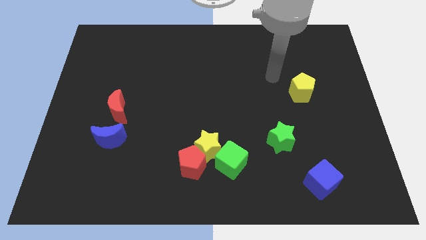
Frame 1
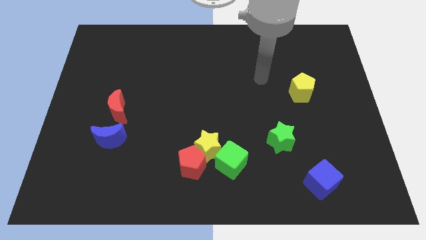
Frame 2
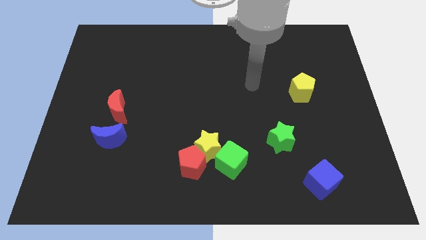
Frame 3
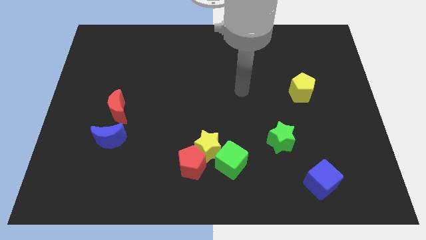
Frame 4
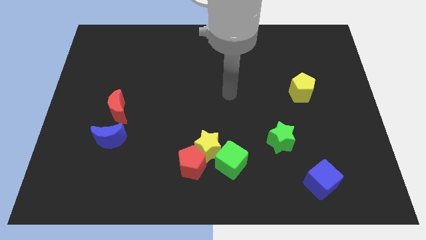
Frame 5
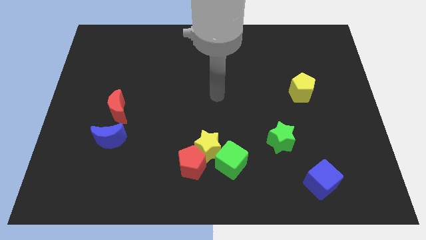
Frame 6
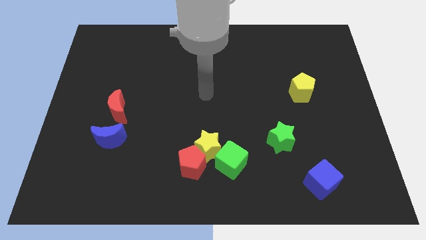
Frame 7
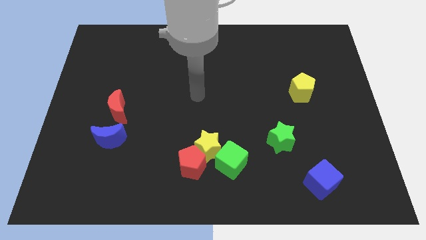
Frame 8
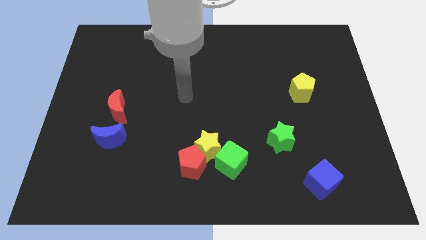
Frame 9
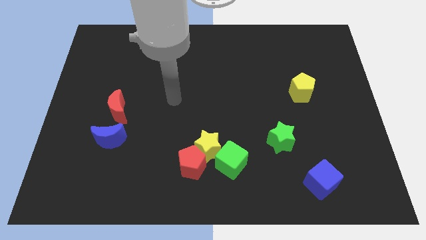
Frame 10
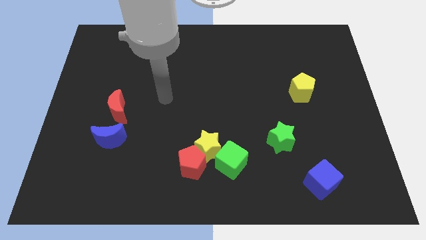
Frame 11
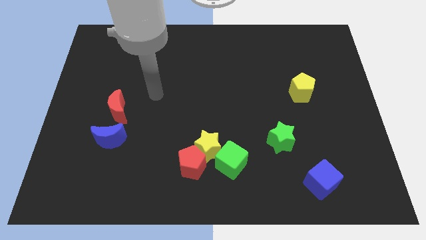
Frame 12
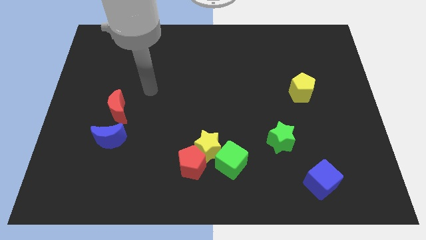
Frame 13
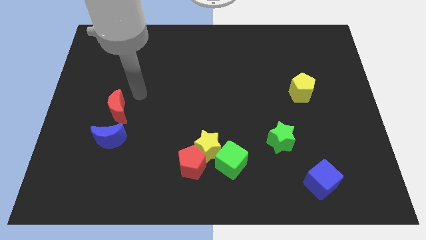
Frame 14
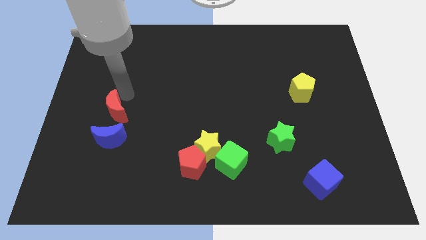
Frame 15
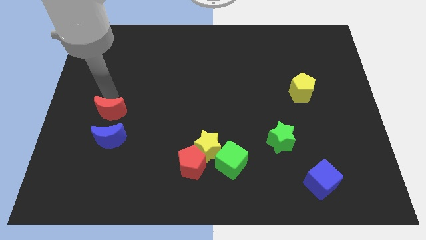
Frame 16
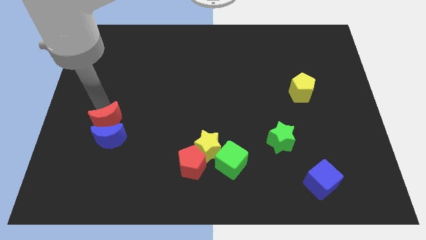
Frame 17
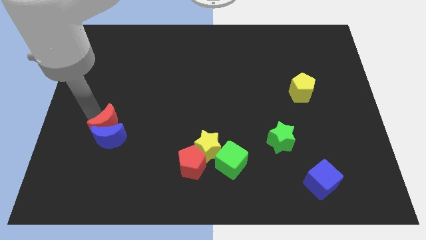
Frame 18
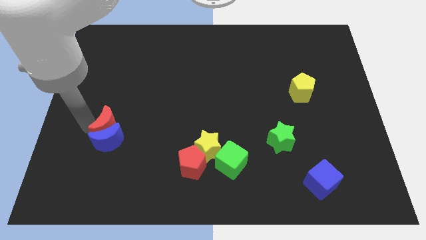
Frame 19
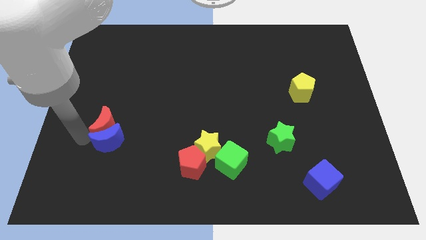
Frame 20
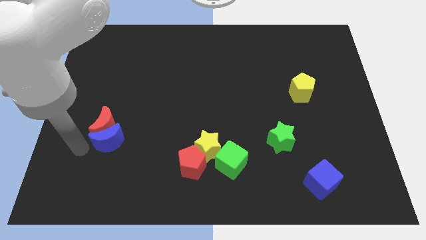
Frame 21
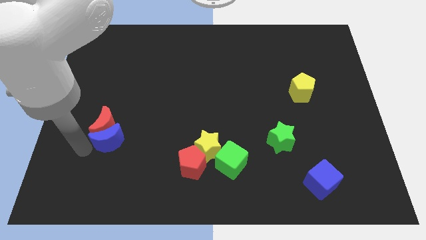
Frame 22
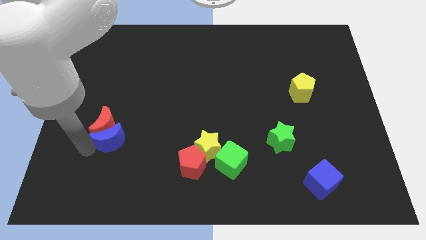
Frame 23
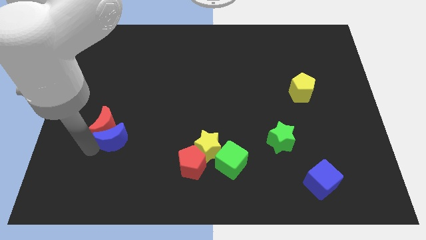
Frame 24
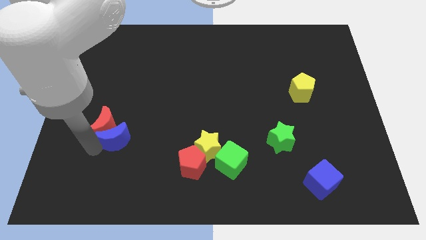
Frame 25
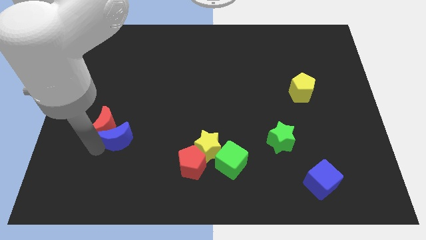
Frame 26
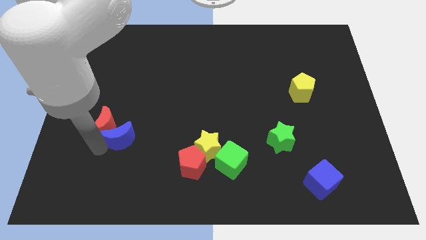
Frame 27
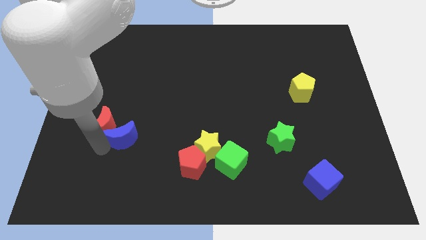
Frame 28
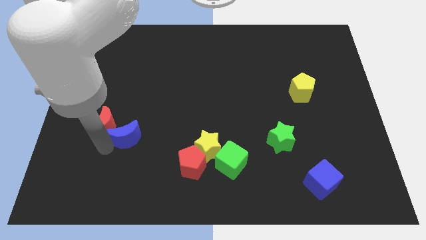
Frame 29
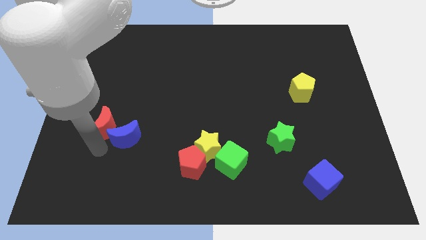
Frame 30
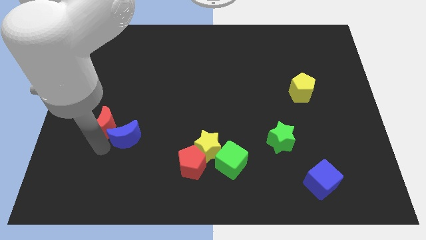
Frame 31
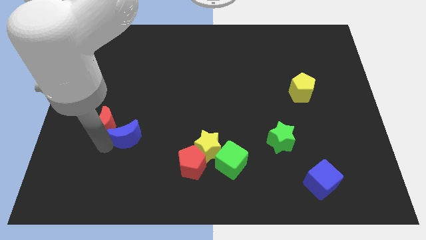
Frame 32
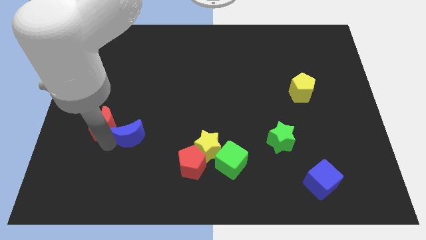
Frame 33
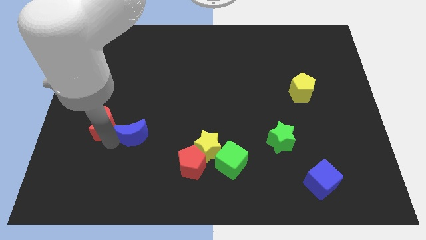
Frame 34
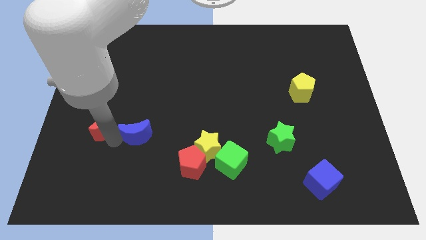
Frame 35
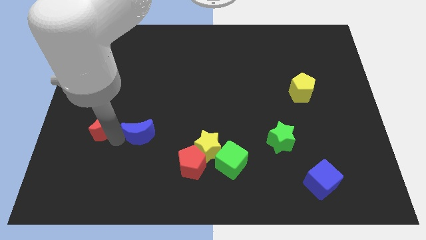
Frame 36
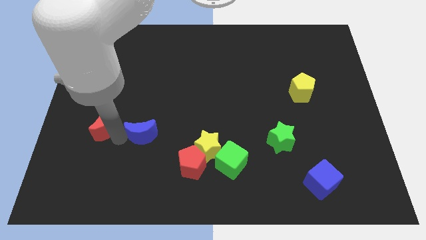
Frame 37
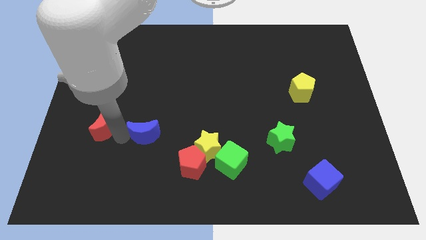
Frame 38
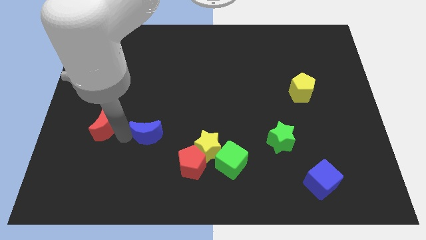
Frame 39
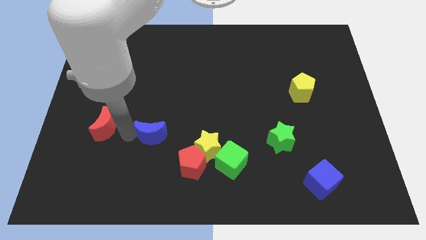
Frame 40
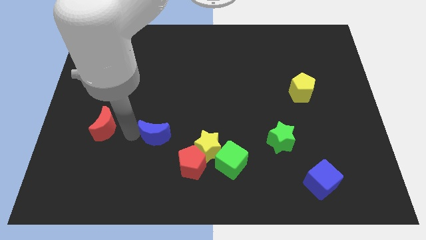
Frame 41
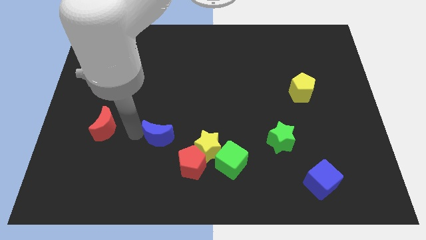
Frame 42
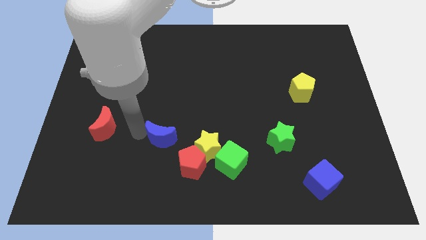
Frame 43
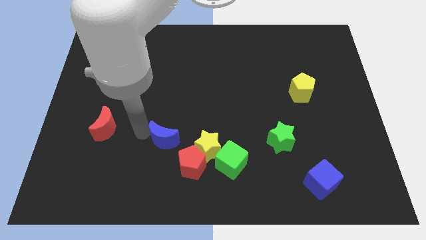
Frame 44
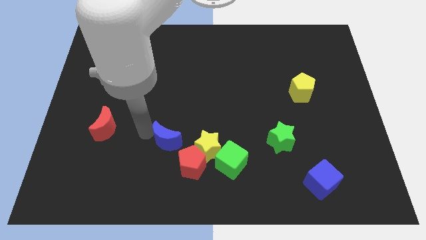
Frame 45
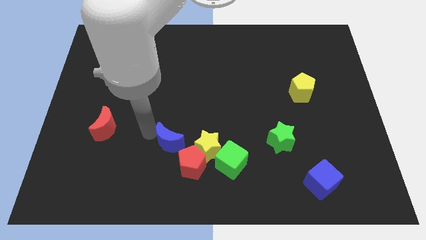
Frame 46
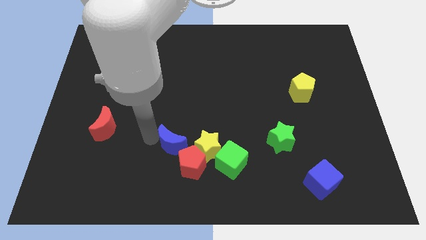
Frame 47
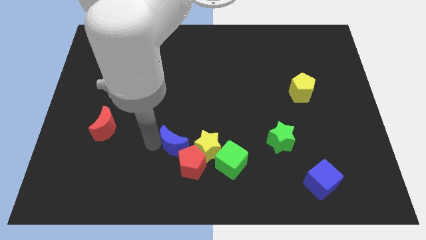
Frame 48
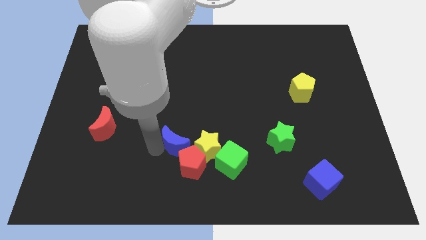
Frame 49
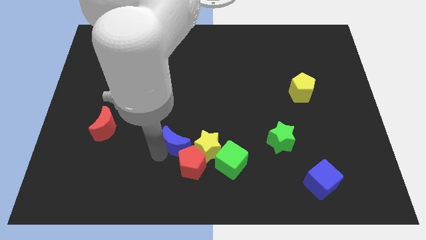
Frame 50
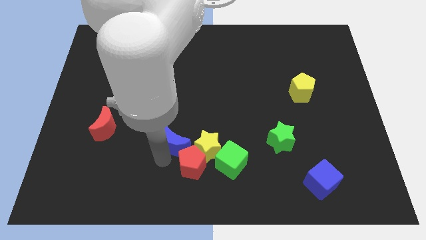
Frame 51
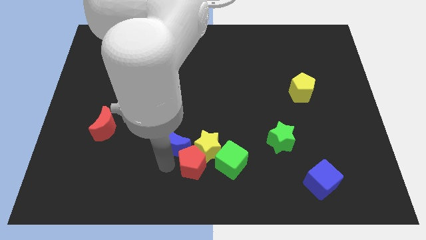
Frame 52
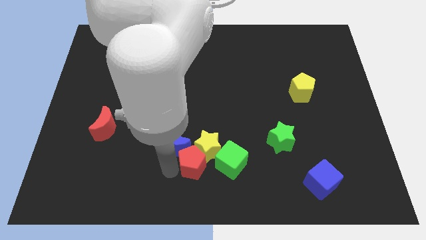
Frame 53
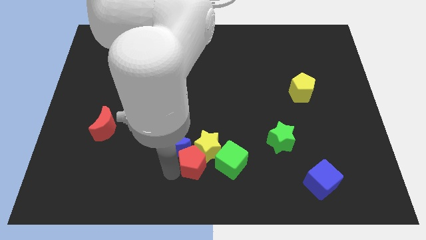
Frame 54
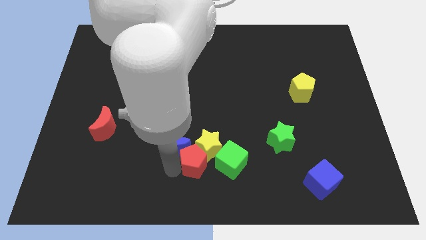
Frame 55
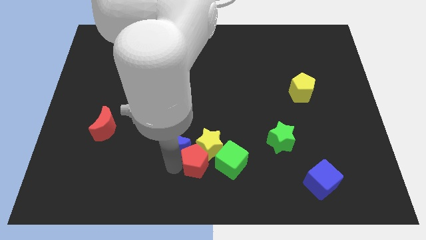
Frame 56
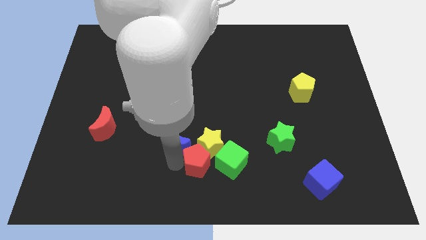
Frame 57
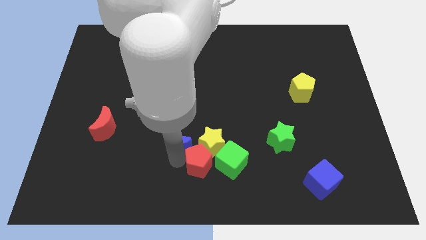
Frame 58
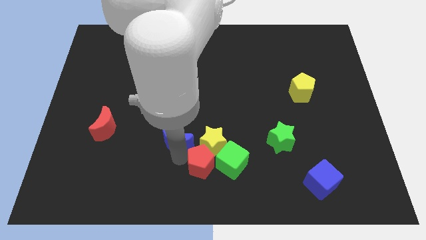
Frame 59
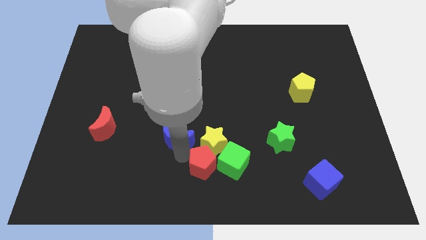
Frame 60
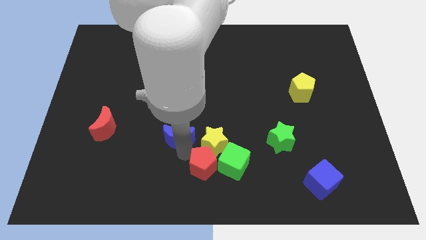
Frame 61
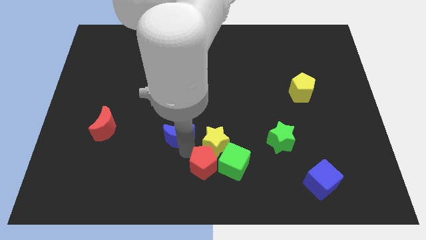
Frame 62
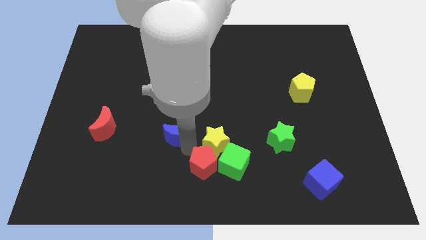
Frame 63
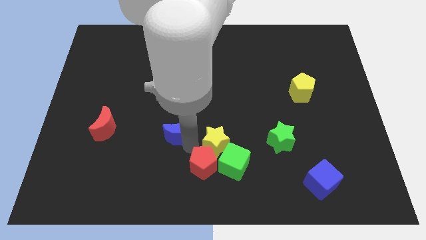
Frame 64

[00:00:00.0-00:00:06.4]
move the blue moon to the middle of the board

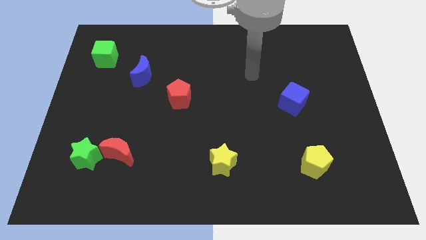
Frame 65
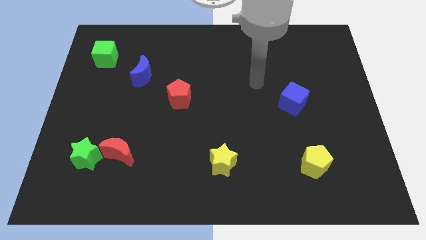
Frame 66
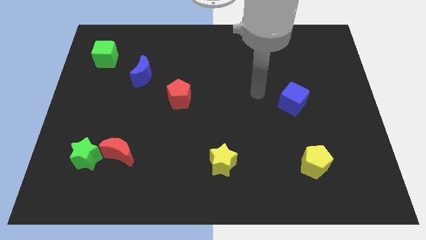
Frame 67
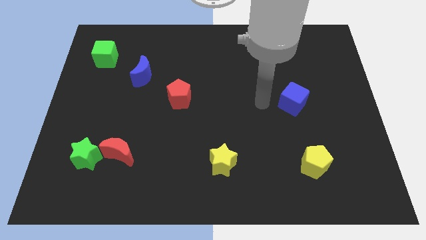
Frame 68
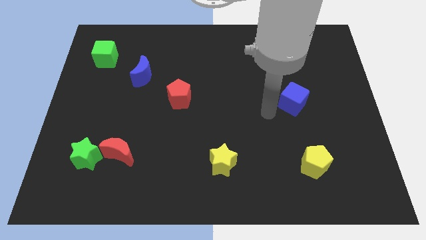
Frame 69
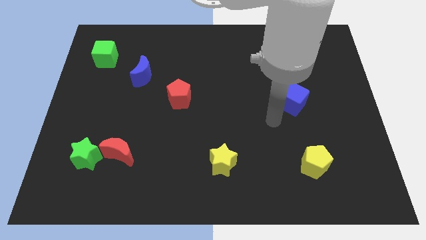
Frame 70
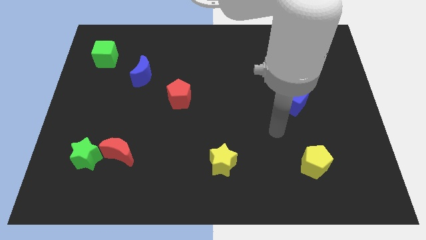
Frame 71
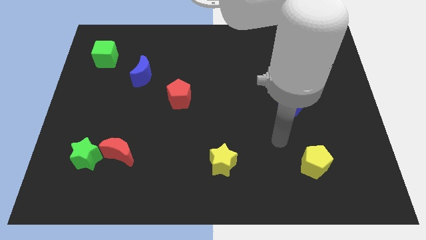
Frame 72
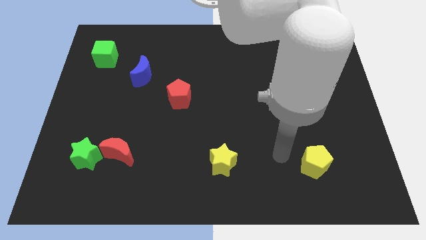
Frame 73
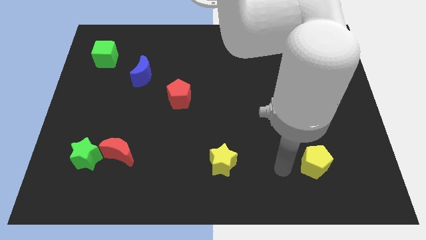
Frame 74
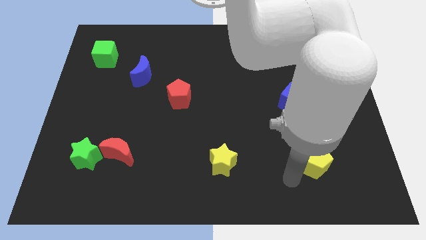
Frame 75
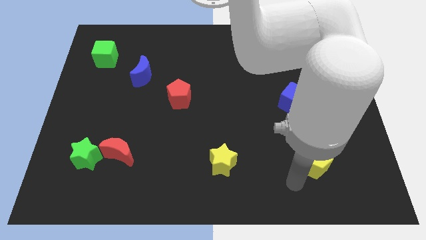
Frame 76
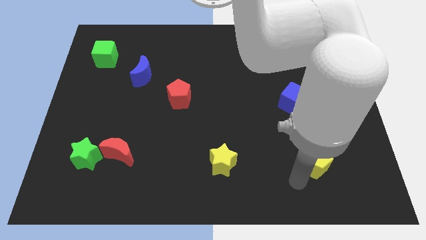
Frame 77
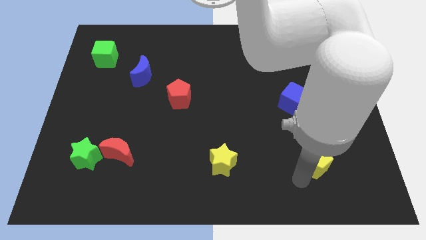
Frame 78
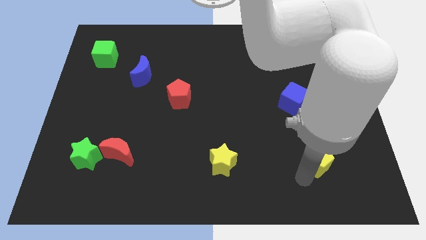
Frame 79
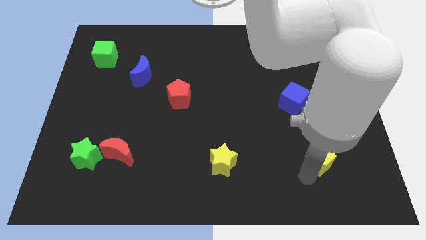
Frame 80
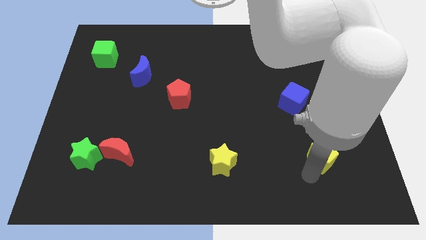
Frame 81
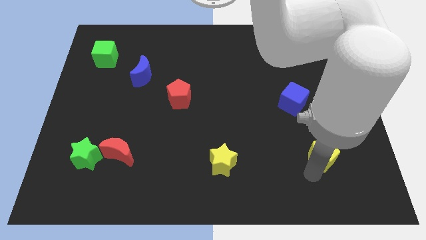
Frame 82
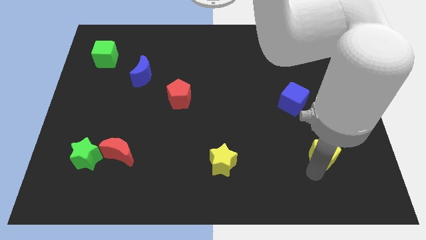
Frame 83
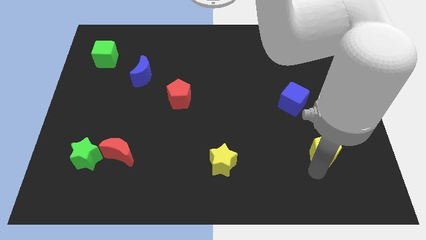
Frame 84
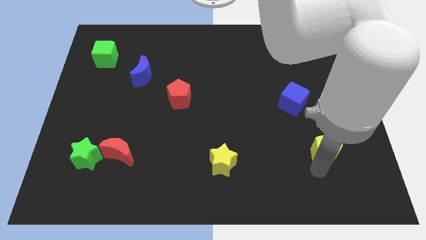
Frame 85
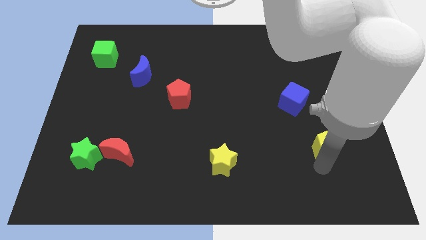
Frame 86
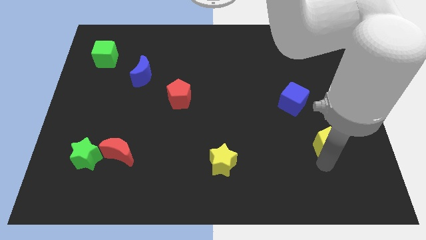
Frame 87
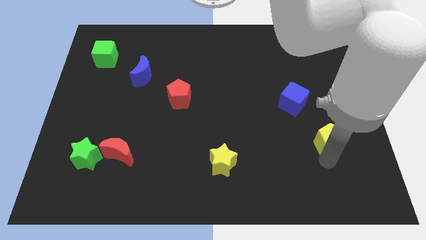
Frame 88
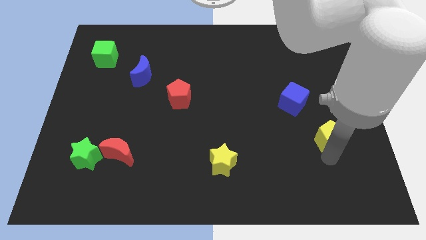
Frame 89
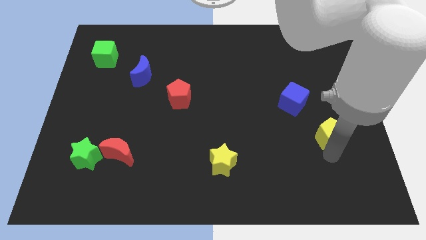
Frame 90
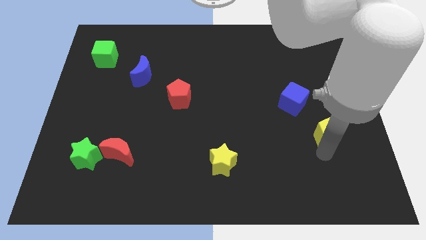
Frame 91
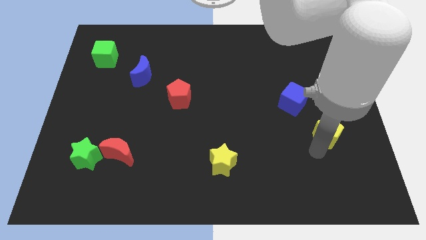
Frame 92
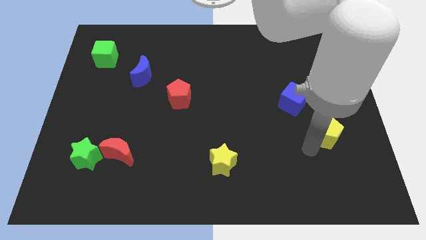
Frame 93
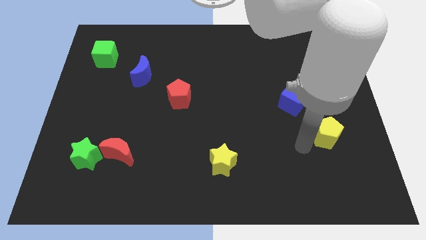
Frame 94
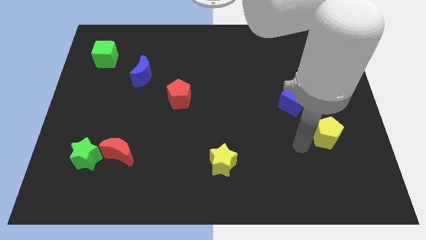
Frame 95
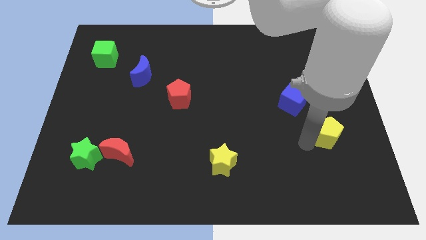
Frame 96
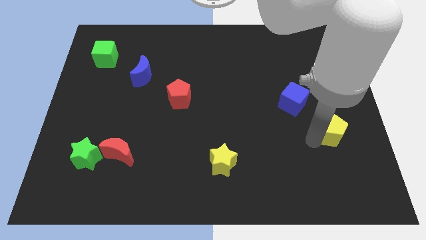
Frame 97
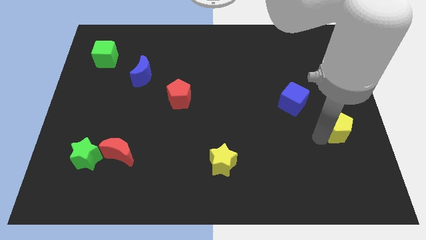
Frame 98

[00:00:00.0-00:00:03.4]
put the yellow pentagon to the center right
